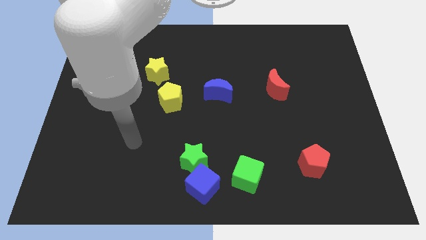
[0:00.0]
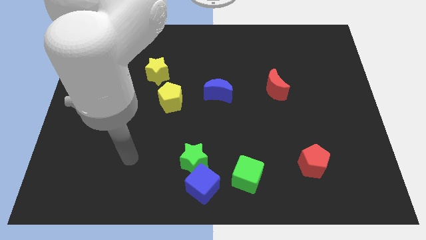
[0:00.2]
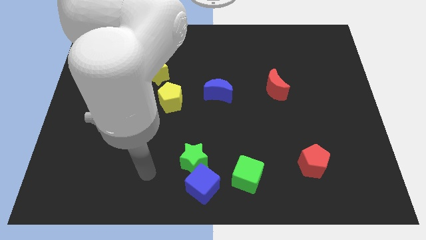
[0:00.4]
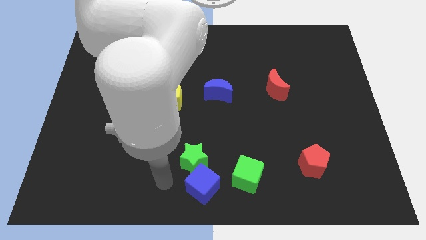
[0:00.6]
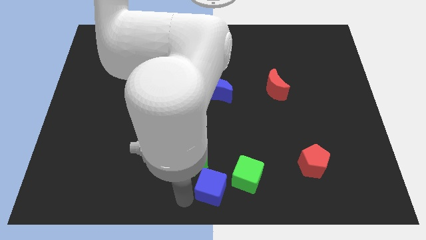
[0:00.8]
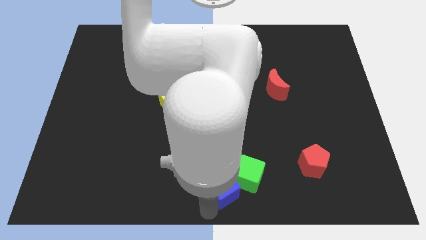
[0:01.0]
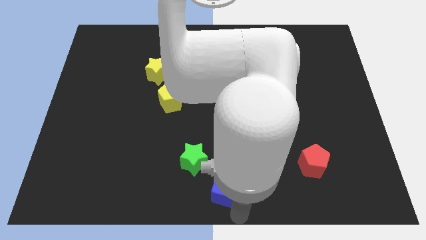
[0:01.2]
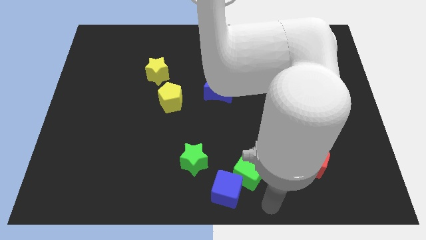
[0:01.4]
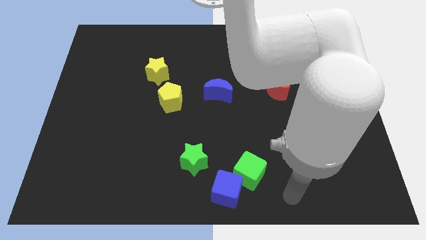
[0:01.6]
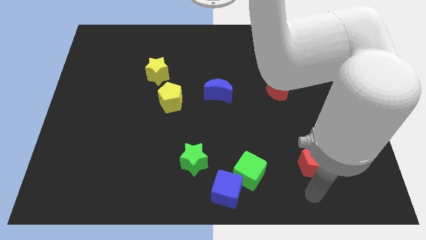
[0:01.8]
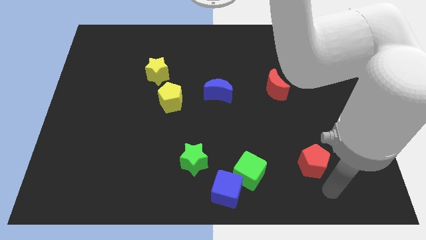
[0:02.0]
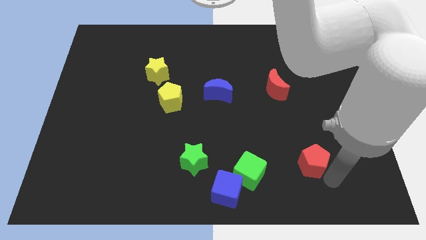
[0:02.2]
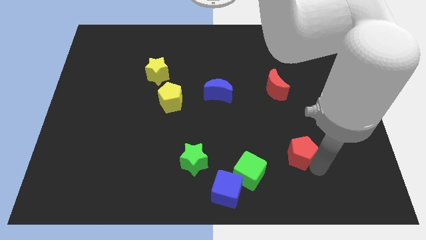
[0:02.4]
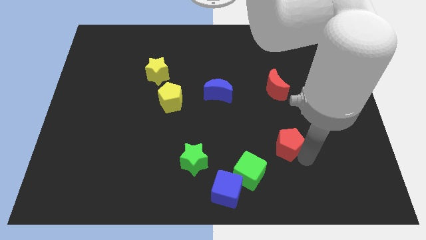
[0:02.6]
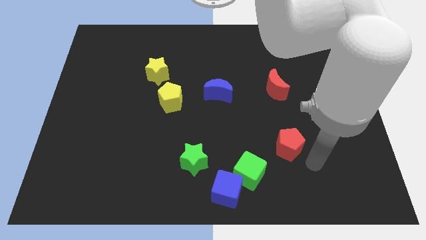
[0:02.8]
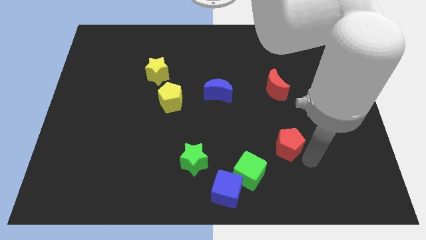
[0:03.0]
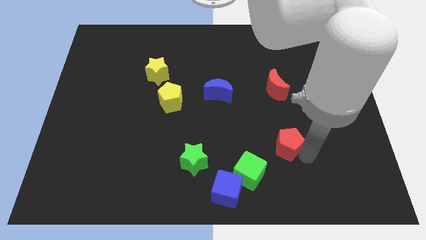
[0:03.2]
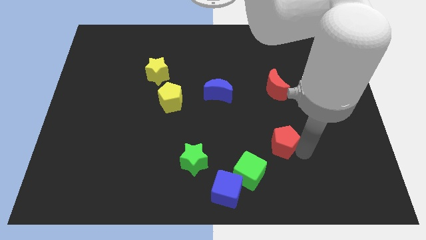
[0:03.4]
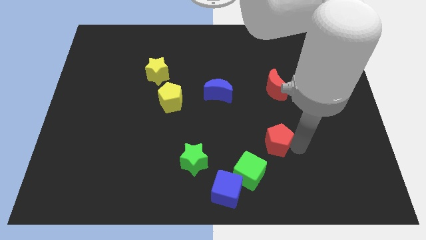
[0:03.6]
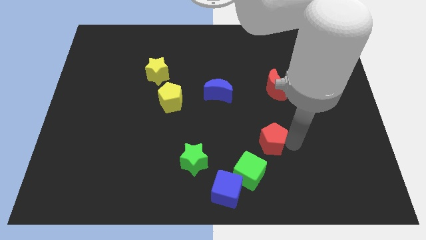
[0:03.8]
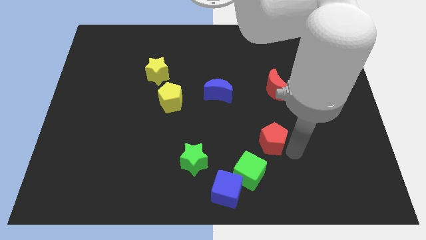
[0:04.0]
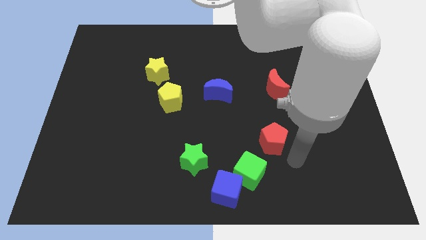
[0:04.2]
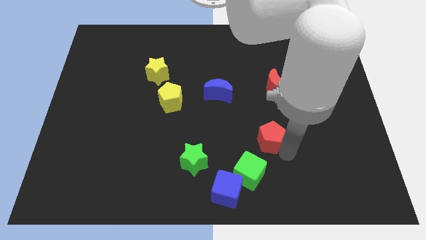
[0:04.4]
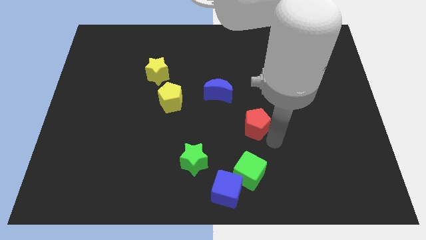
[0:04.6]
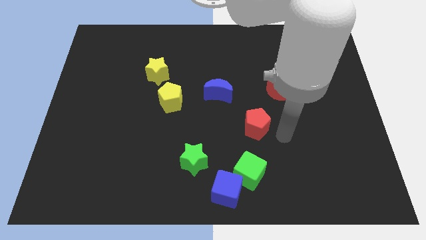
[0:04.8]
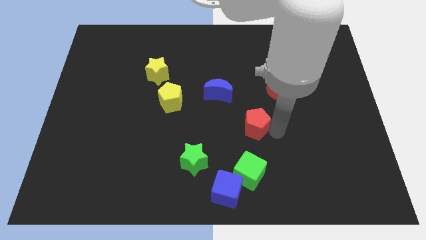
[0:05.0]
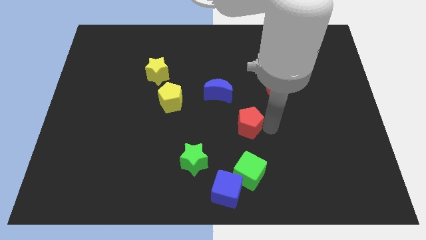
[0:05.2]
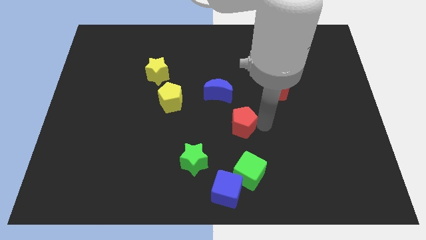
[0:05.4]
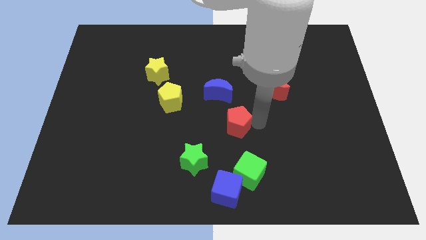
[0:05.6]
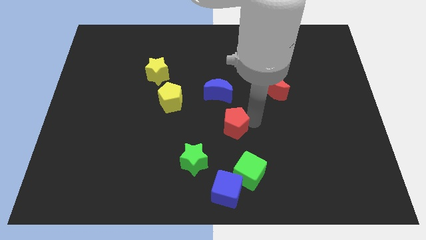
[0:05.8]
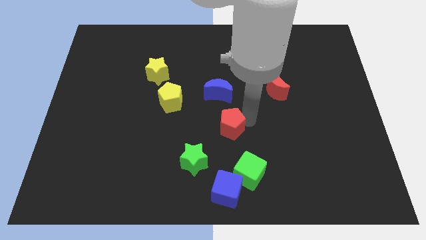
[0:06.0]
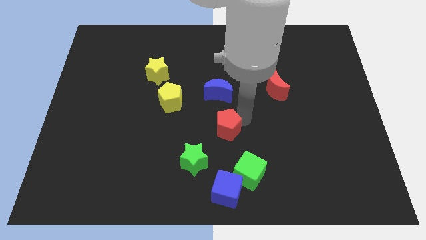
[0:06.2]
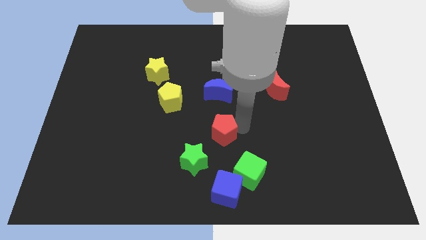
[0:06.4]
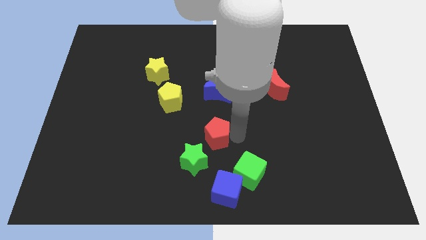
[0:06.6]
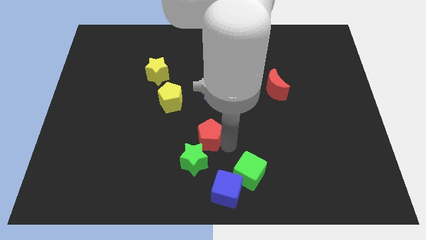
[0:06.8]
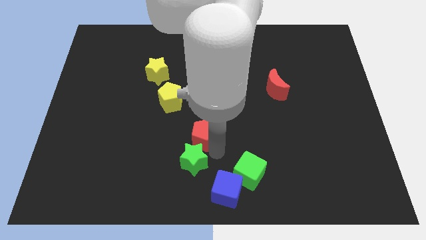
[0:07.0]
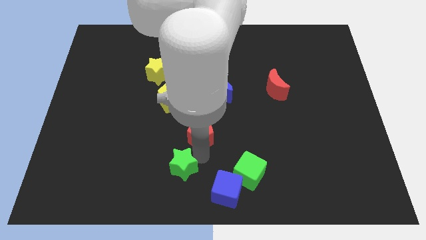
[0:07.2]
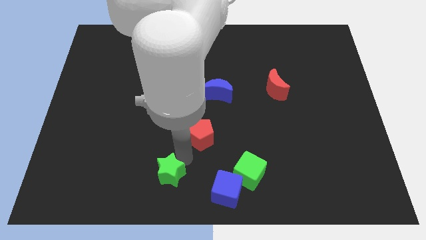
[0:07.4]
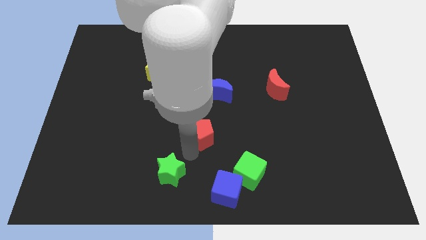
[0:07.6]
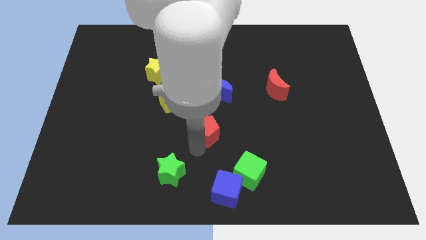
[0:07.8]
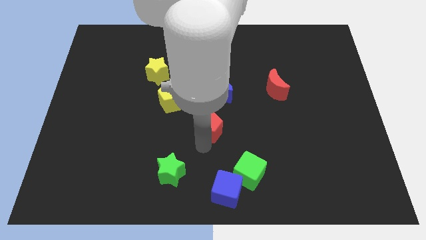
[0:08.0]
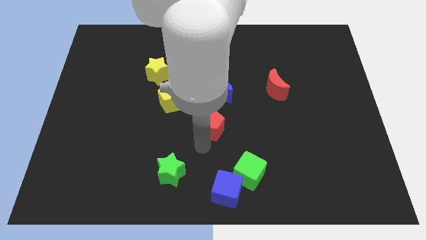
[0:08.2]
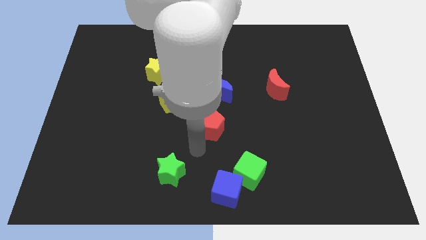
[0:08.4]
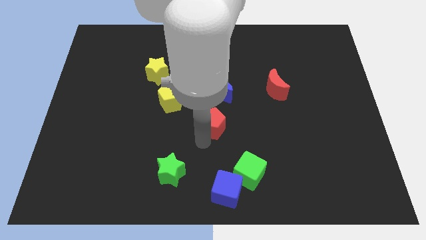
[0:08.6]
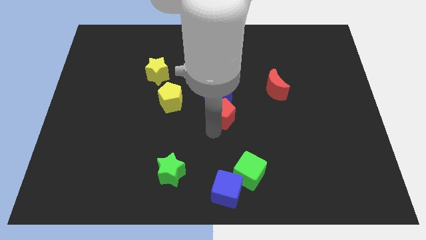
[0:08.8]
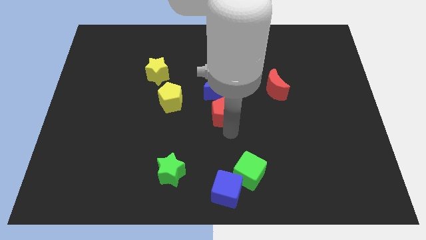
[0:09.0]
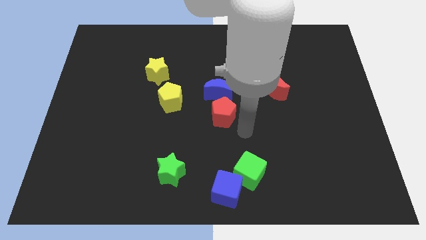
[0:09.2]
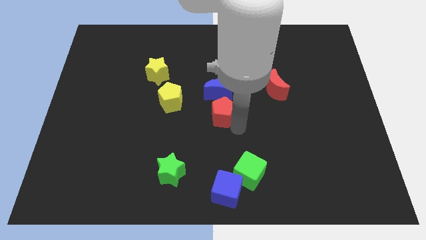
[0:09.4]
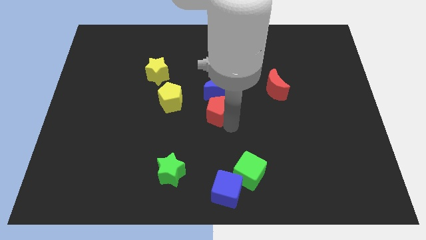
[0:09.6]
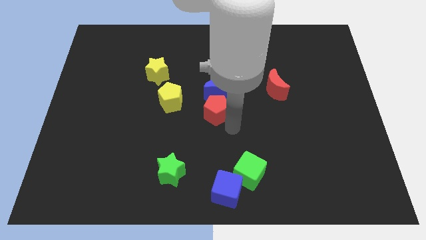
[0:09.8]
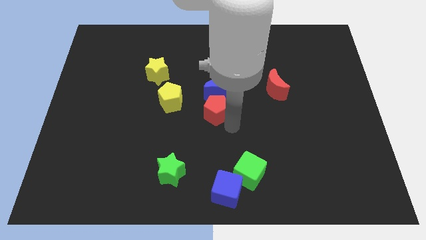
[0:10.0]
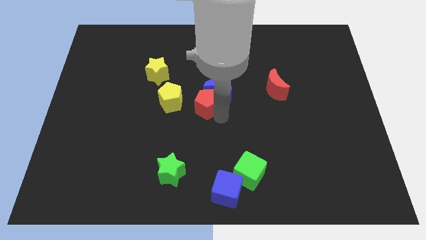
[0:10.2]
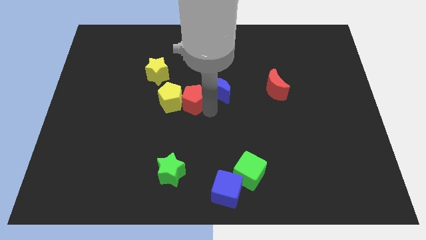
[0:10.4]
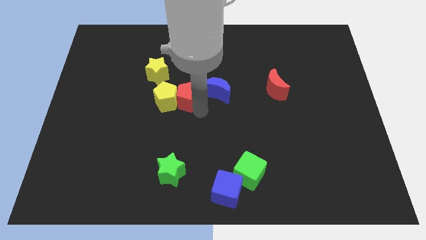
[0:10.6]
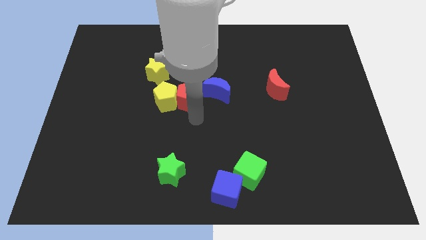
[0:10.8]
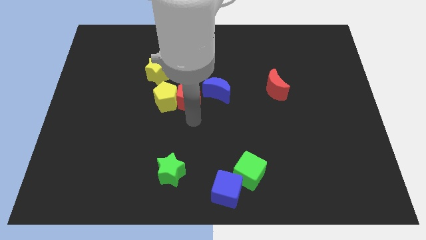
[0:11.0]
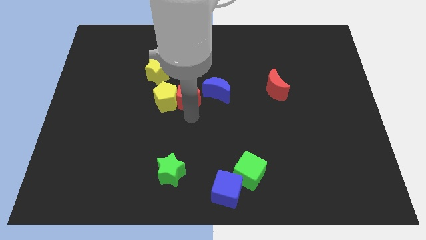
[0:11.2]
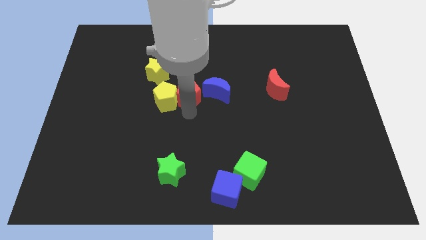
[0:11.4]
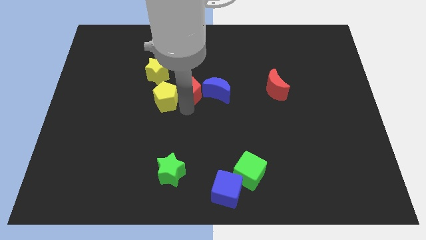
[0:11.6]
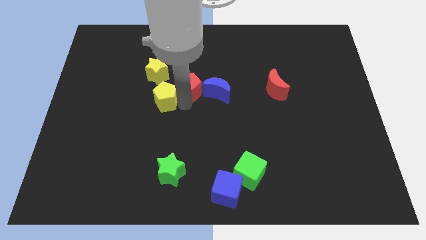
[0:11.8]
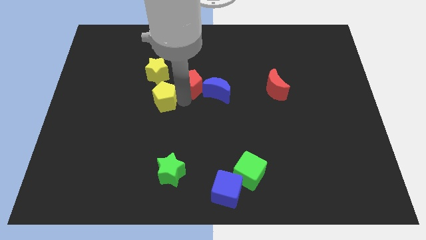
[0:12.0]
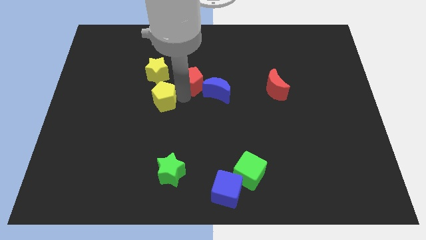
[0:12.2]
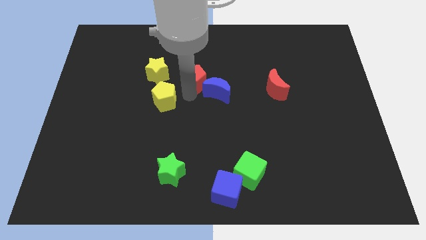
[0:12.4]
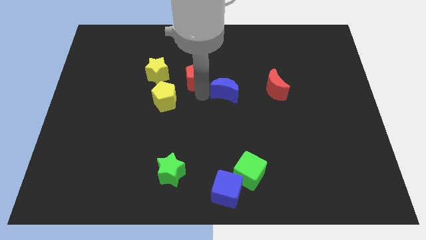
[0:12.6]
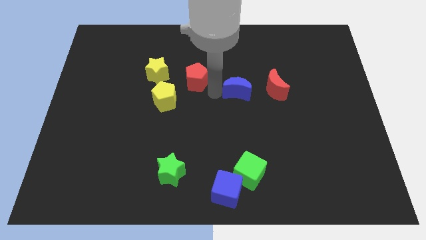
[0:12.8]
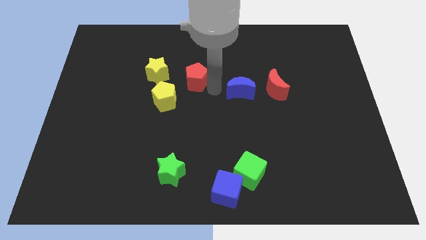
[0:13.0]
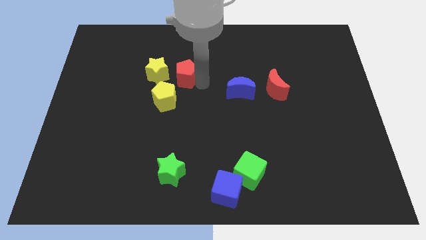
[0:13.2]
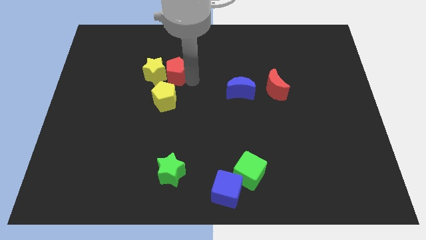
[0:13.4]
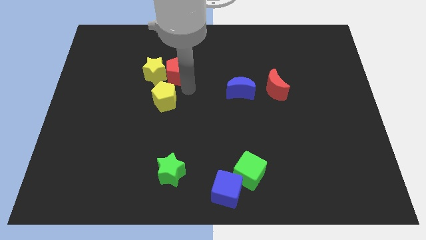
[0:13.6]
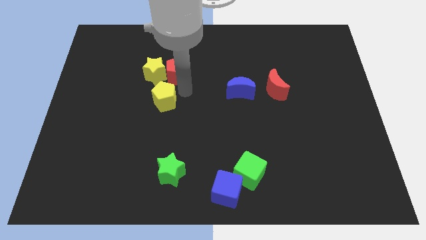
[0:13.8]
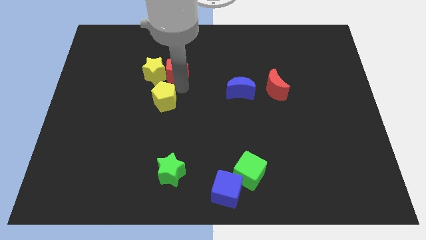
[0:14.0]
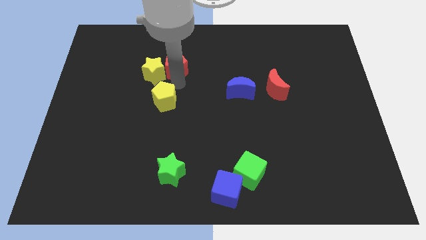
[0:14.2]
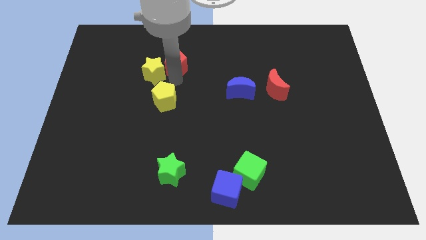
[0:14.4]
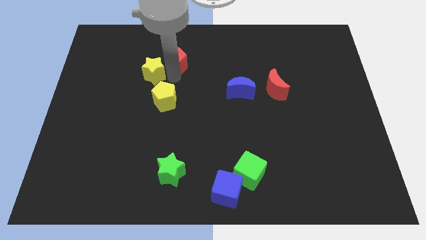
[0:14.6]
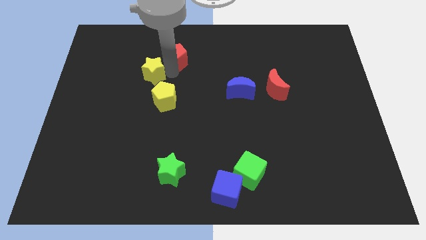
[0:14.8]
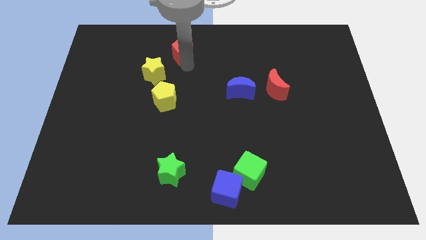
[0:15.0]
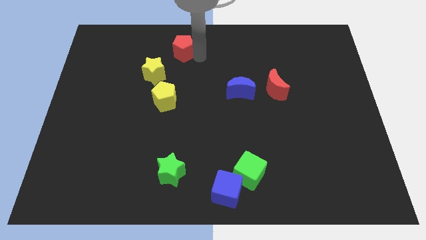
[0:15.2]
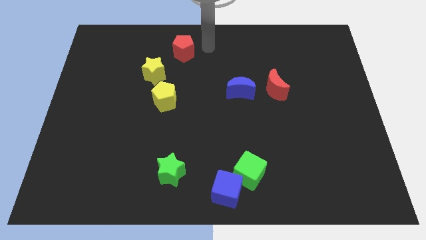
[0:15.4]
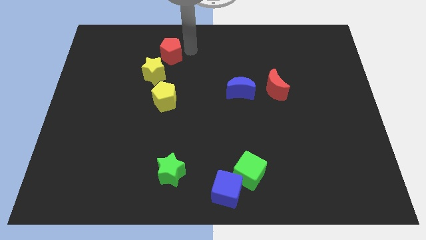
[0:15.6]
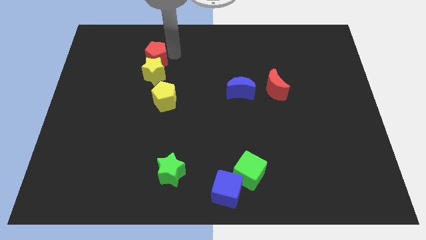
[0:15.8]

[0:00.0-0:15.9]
push the red pentagon to the top left side of the yellow star

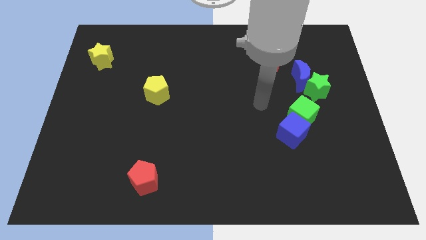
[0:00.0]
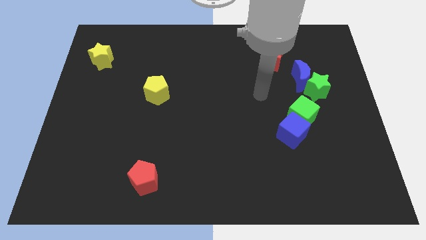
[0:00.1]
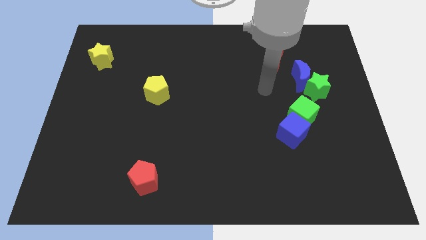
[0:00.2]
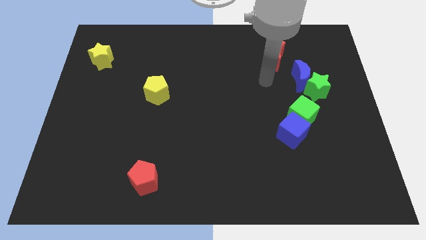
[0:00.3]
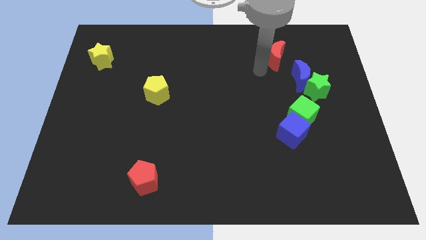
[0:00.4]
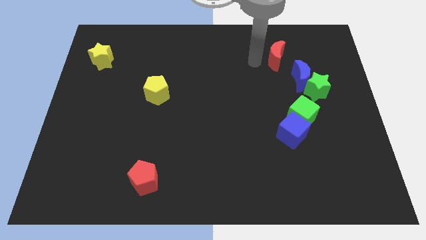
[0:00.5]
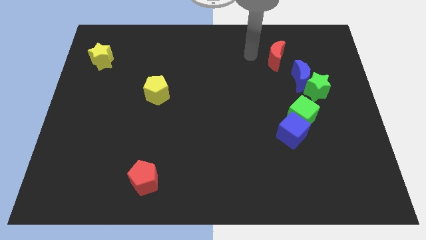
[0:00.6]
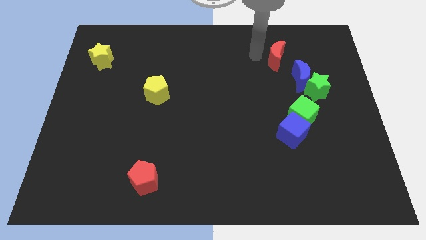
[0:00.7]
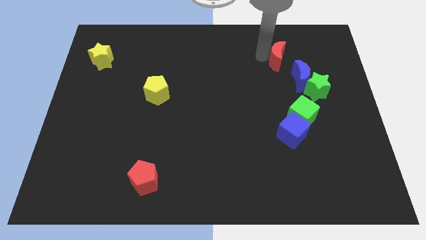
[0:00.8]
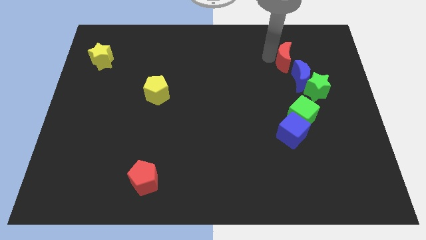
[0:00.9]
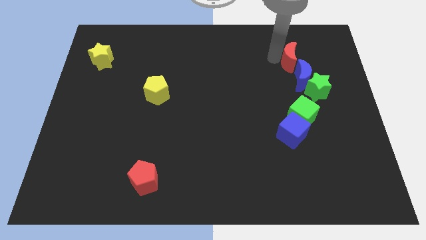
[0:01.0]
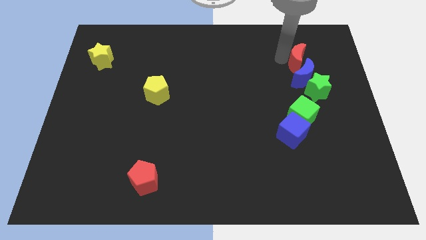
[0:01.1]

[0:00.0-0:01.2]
put the red moon diagonally up and to the right of the blue moon
